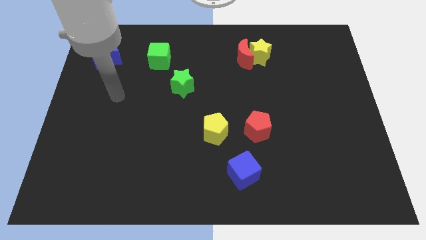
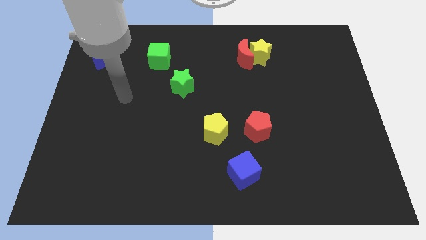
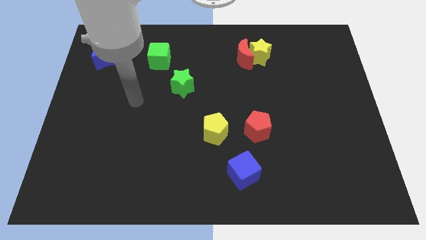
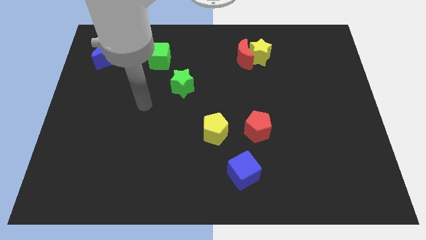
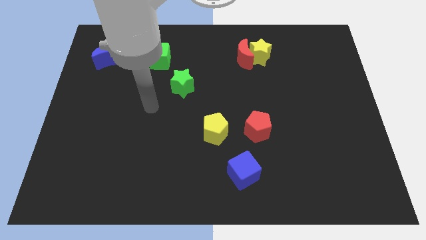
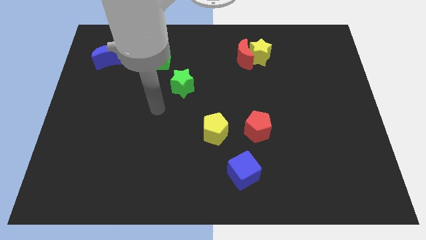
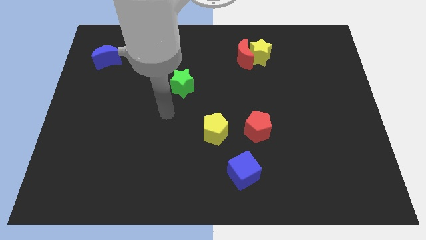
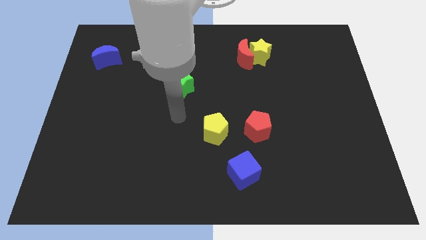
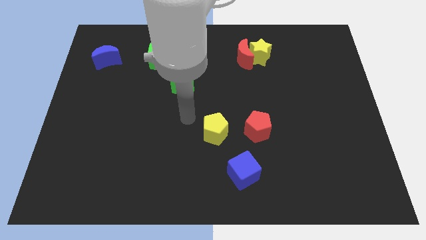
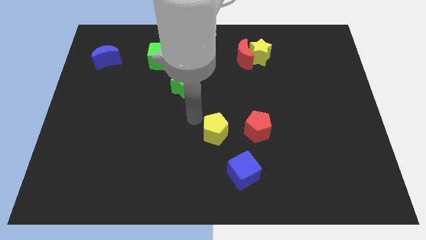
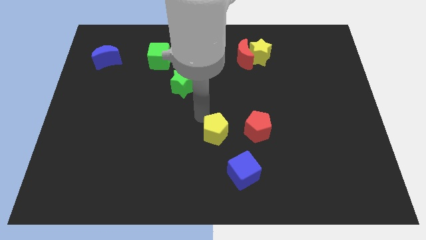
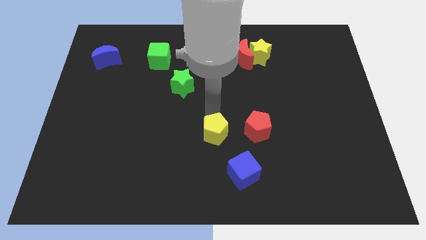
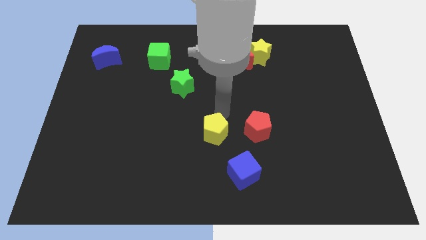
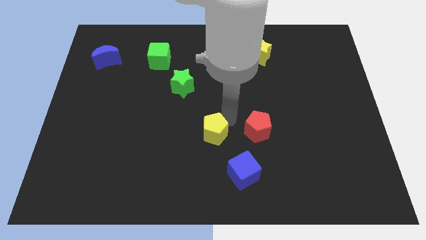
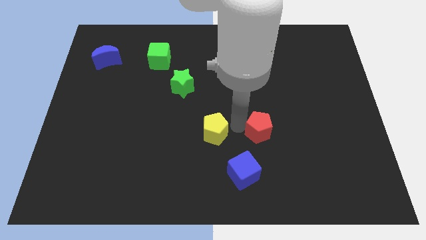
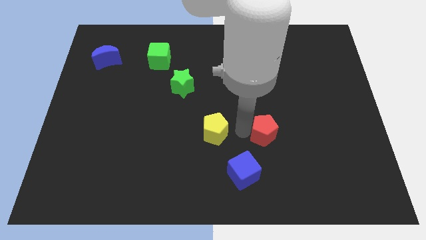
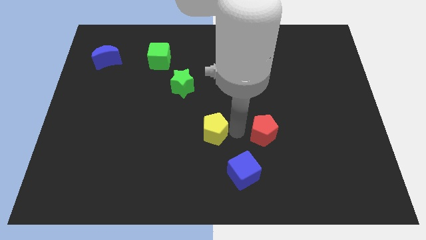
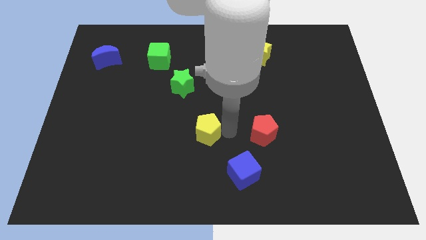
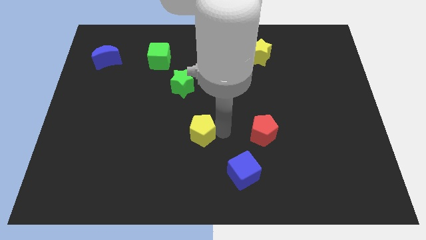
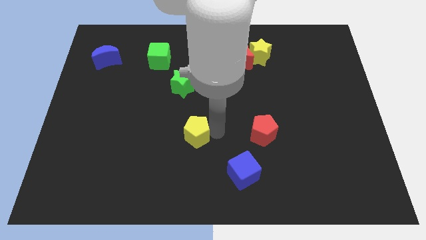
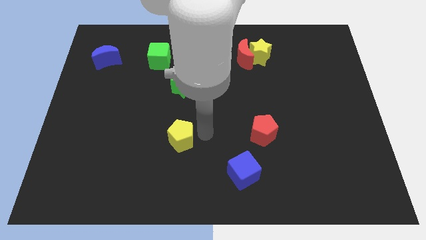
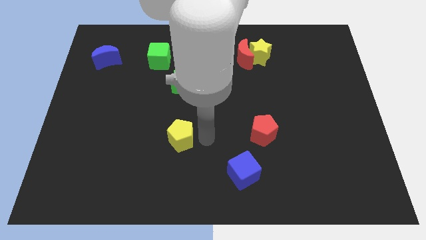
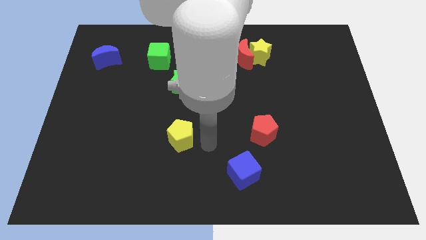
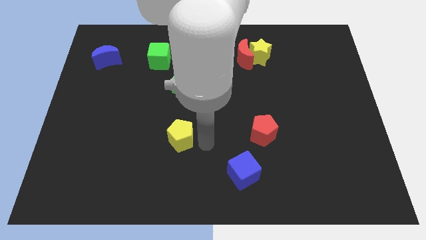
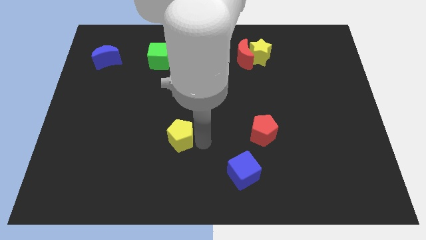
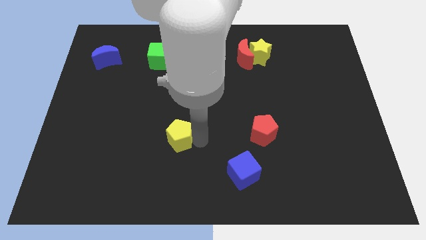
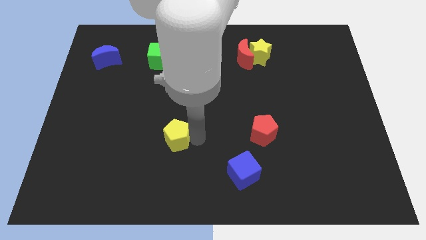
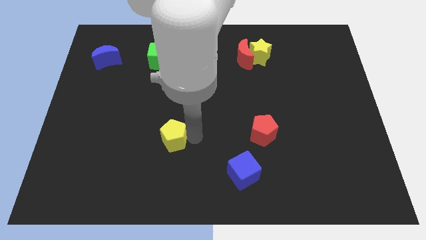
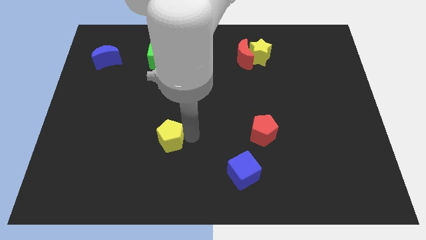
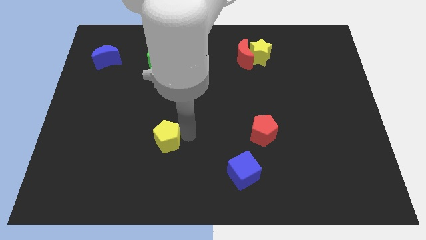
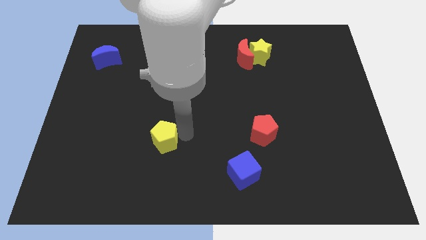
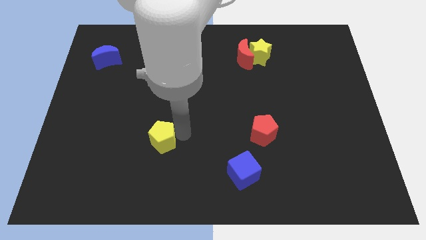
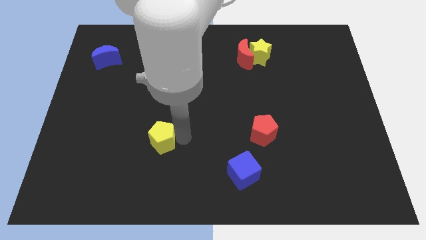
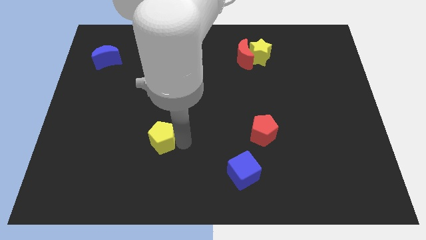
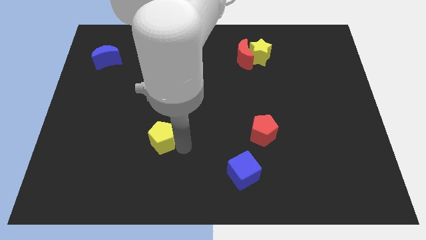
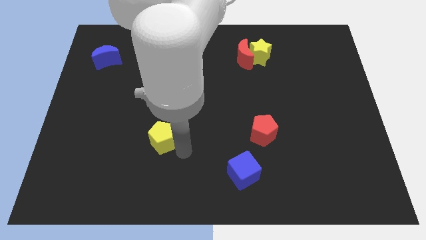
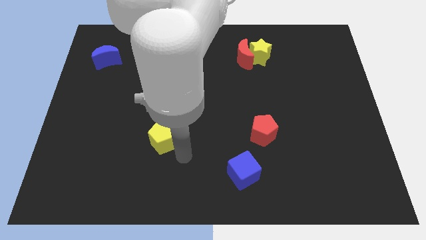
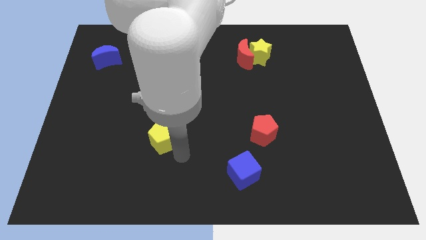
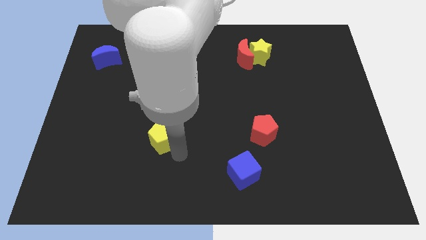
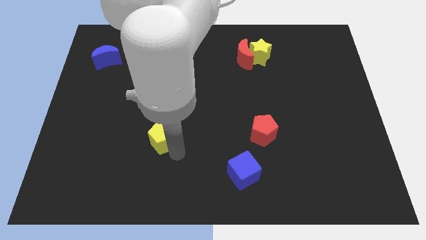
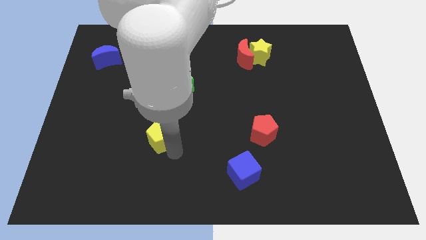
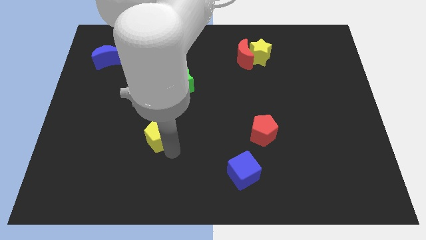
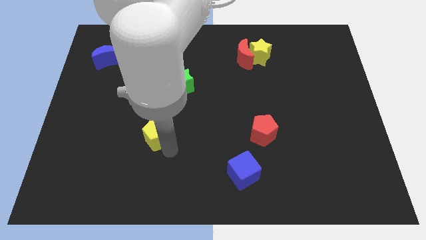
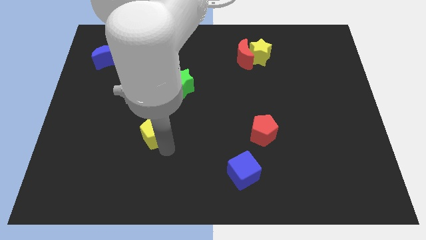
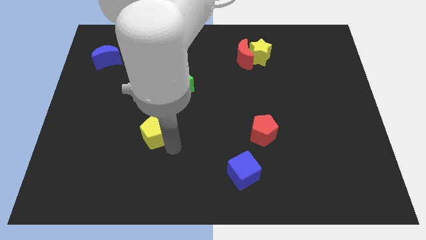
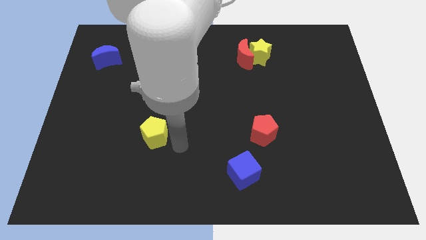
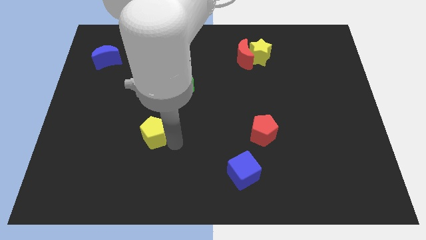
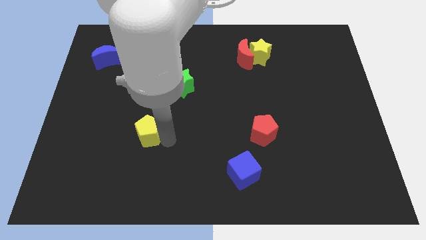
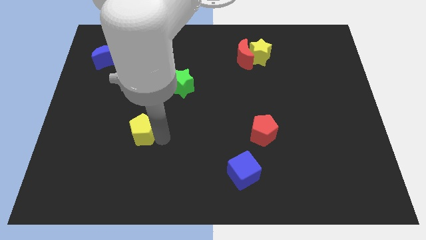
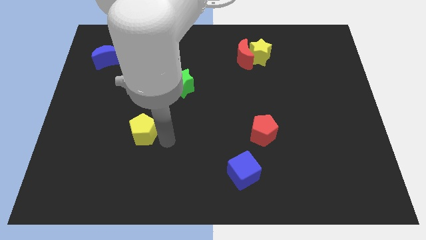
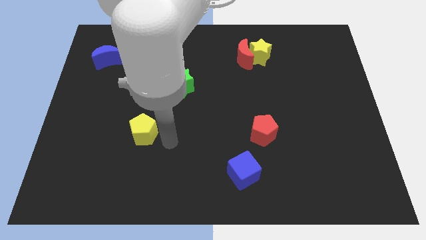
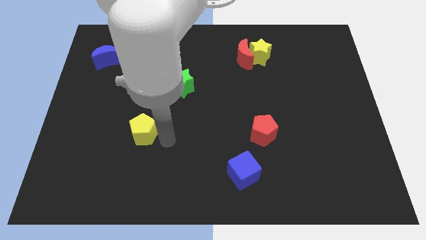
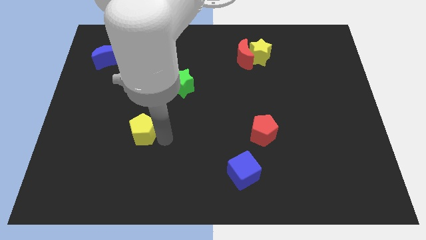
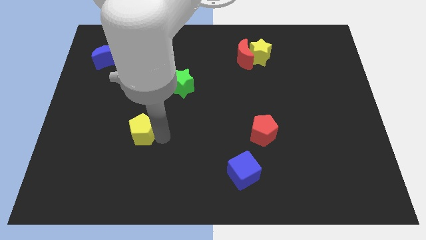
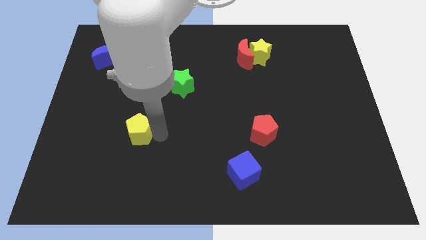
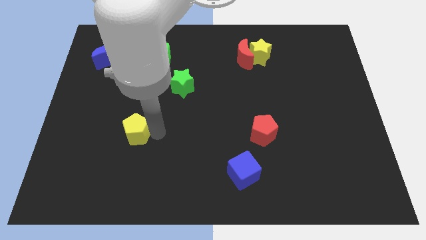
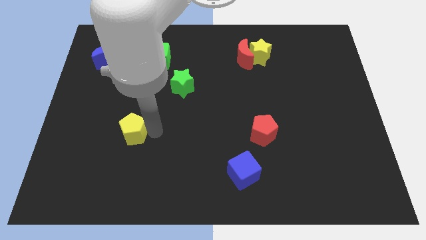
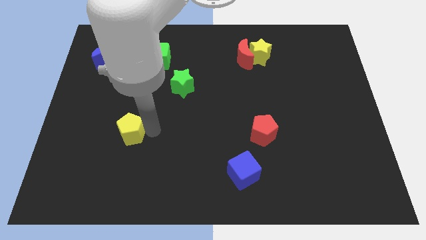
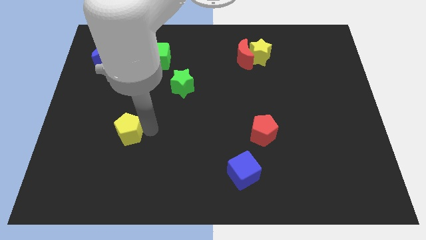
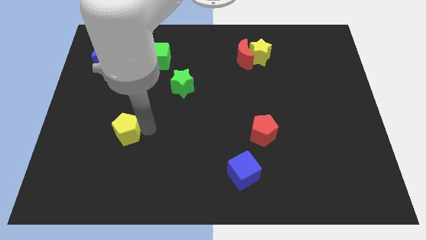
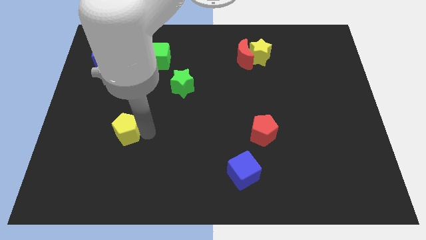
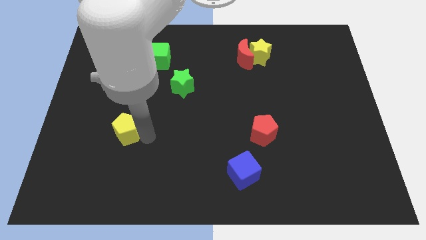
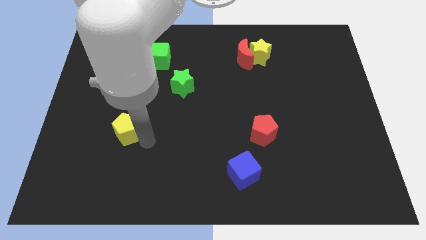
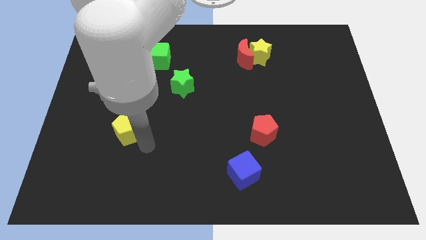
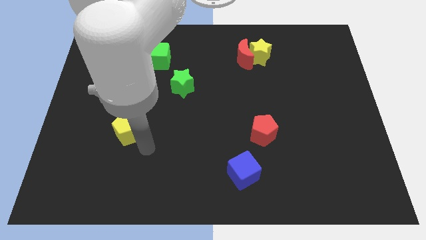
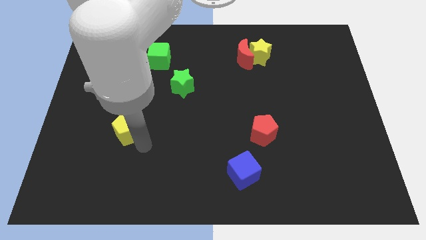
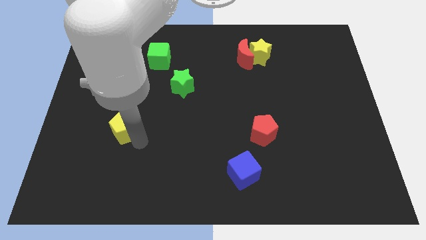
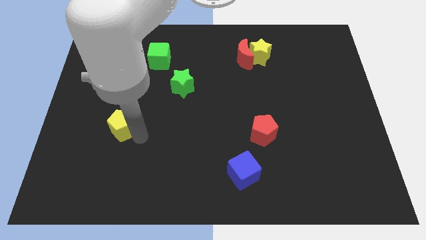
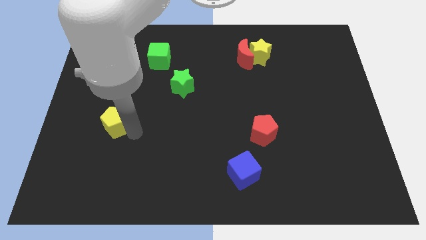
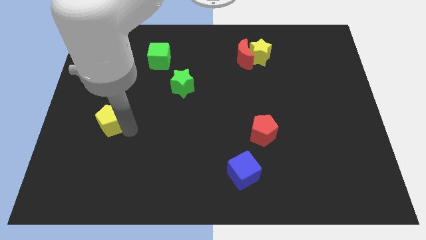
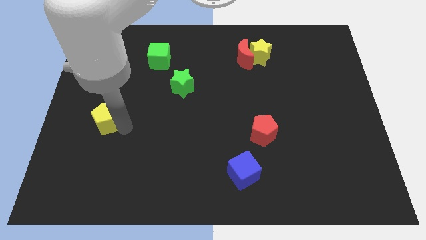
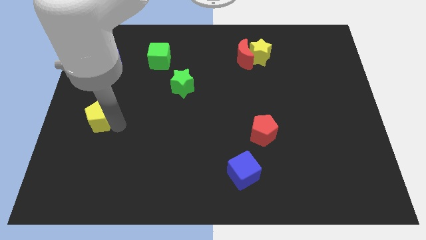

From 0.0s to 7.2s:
move the yellow pentagon to the center left
